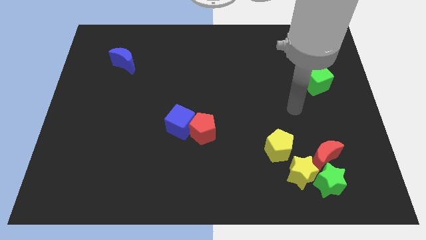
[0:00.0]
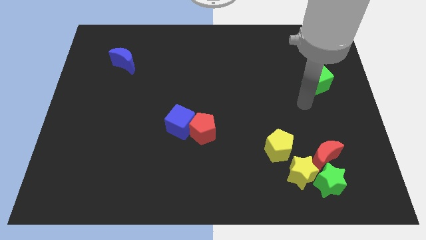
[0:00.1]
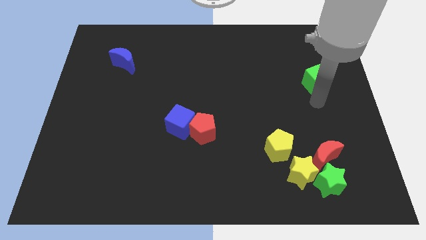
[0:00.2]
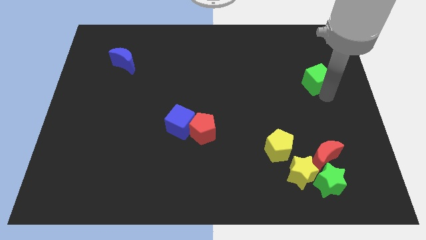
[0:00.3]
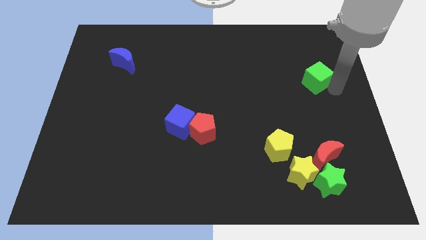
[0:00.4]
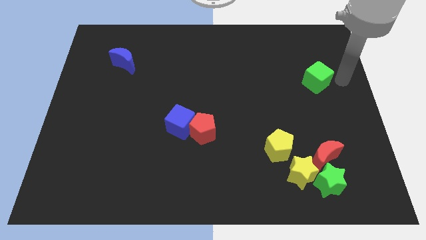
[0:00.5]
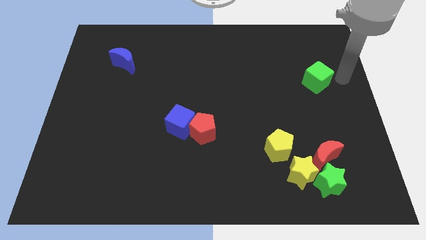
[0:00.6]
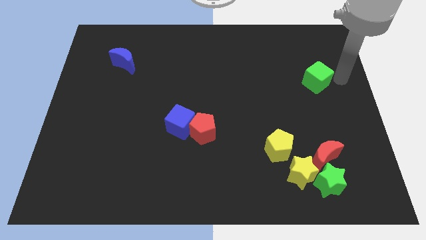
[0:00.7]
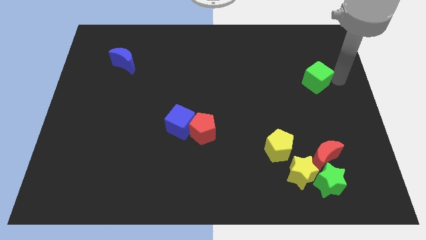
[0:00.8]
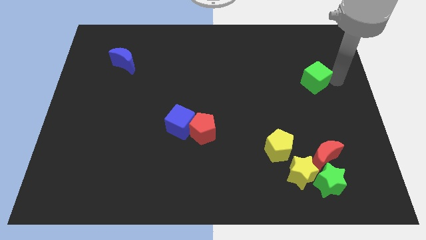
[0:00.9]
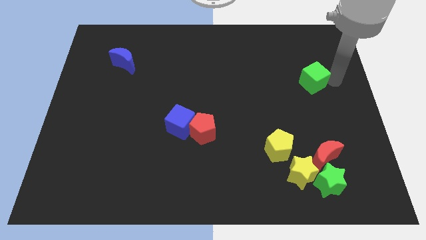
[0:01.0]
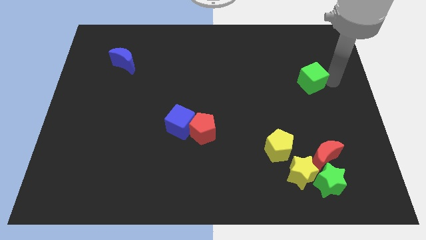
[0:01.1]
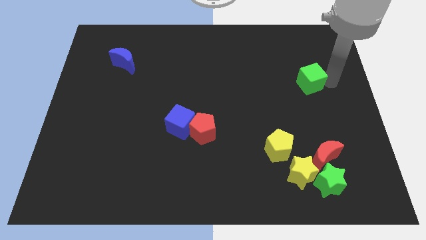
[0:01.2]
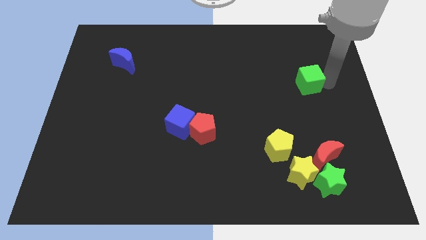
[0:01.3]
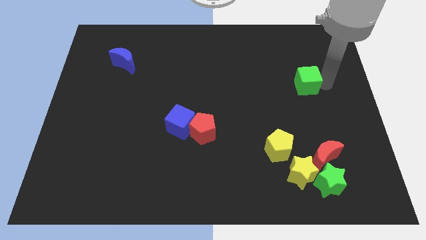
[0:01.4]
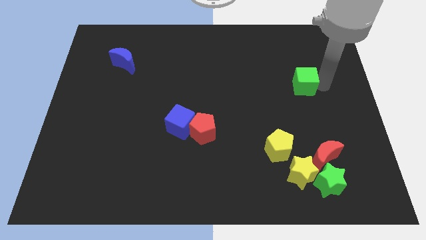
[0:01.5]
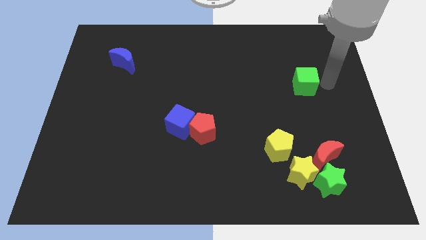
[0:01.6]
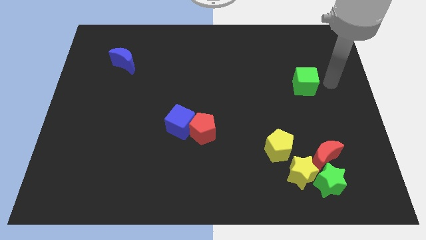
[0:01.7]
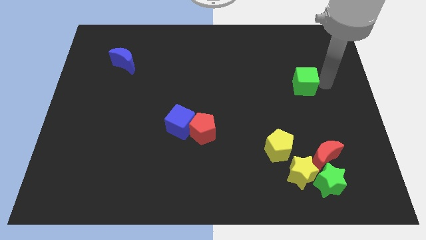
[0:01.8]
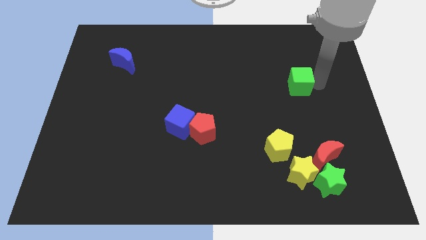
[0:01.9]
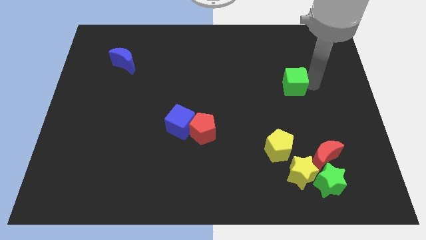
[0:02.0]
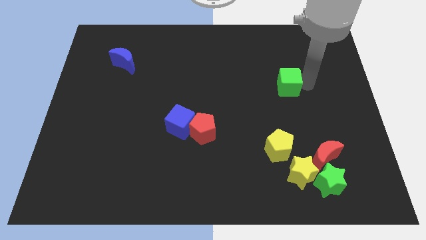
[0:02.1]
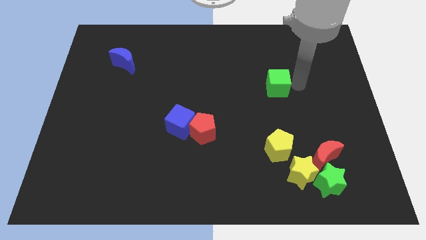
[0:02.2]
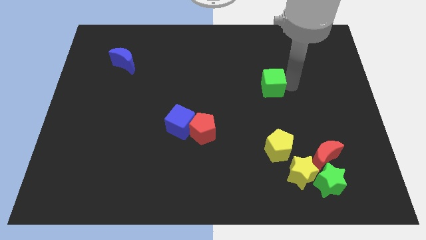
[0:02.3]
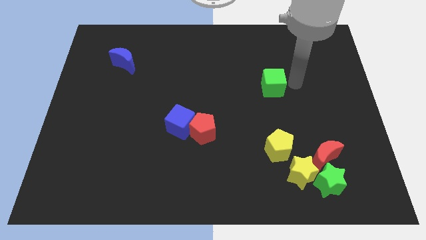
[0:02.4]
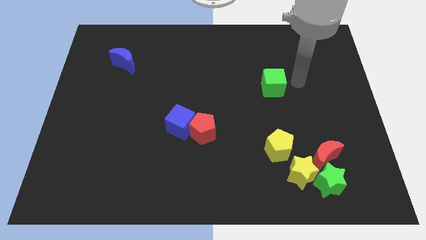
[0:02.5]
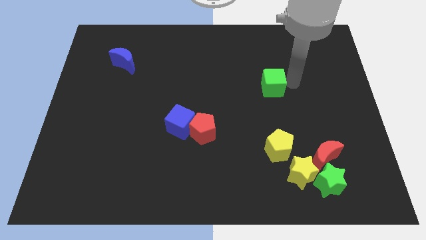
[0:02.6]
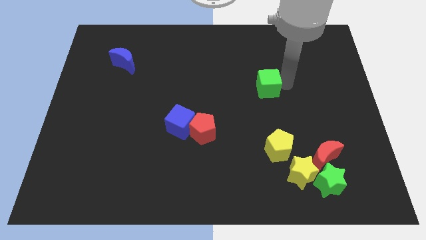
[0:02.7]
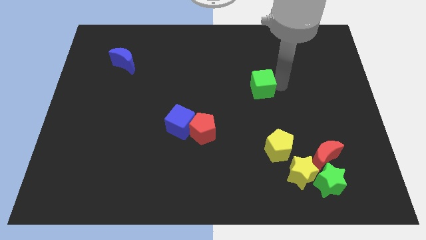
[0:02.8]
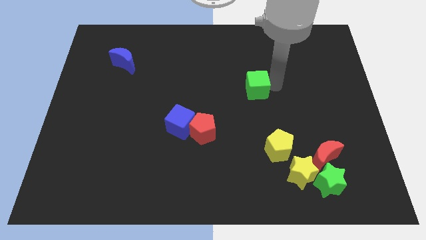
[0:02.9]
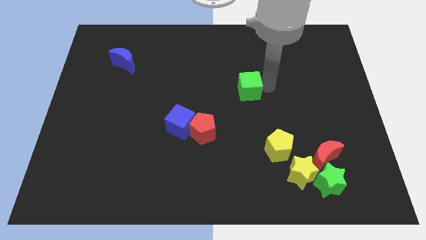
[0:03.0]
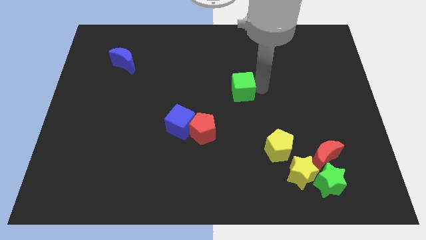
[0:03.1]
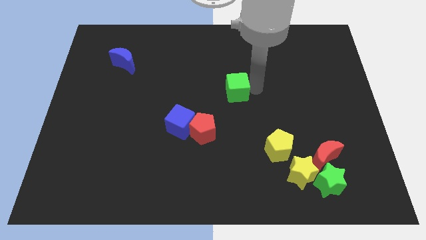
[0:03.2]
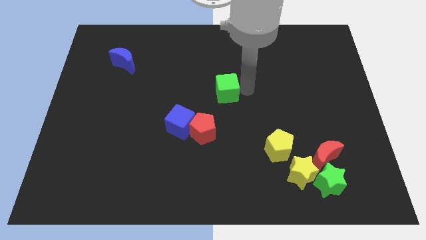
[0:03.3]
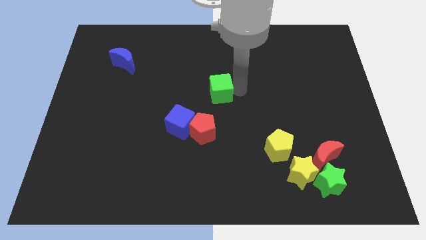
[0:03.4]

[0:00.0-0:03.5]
push the green cube to the top side of the red pentagon

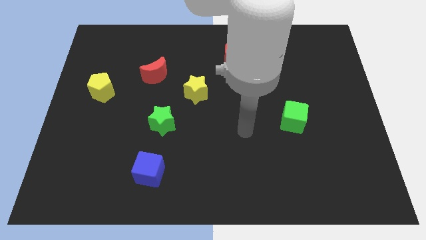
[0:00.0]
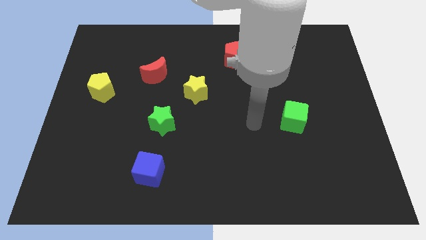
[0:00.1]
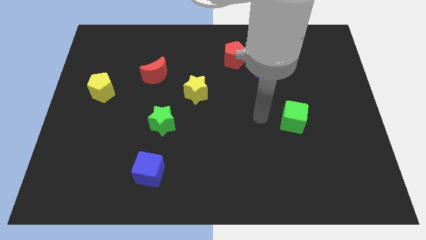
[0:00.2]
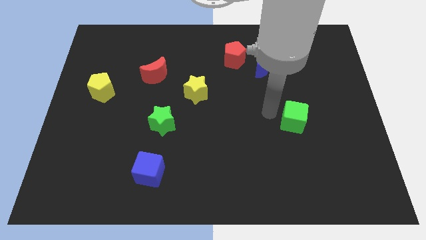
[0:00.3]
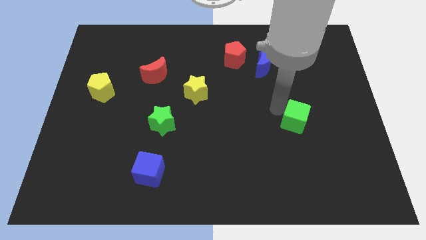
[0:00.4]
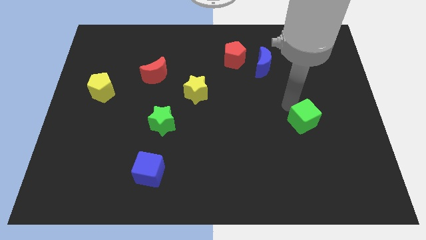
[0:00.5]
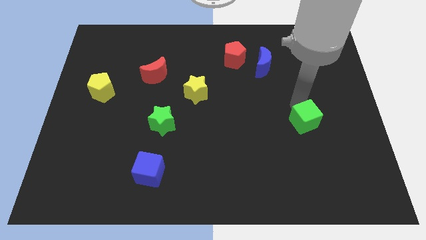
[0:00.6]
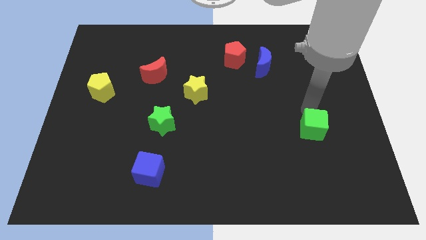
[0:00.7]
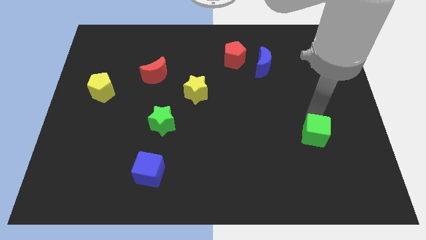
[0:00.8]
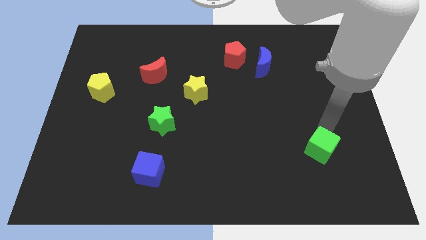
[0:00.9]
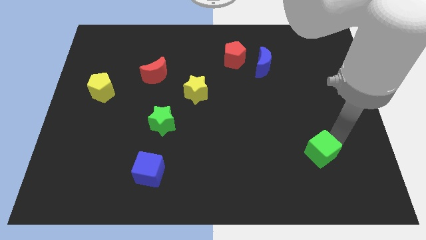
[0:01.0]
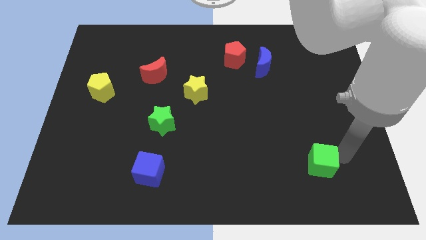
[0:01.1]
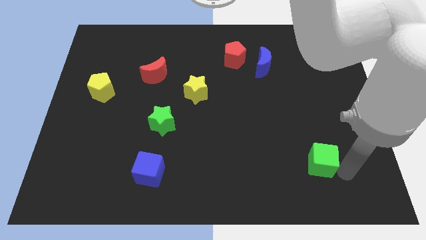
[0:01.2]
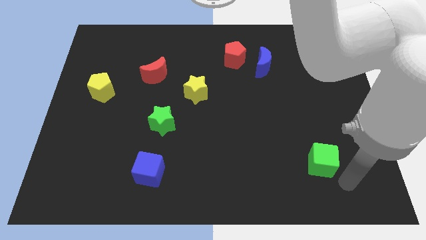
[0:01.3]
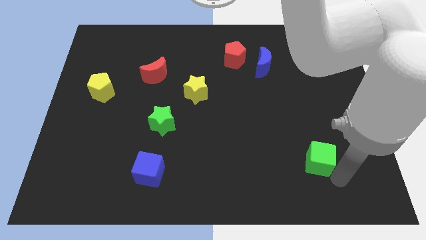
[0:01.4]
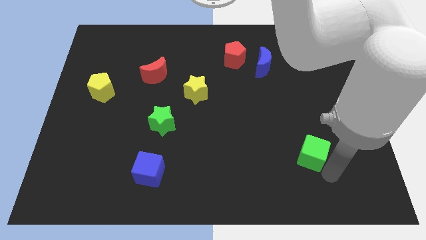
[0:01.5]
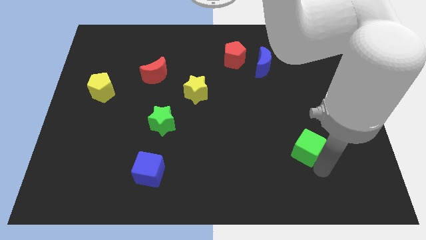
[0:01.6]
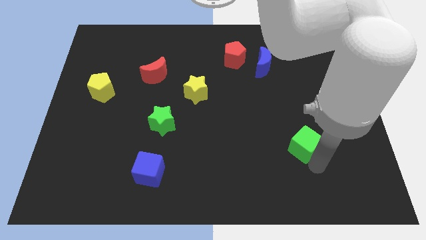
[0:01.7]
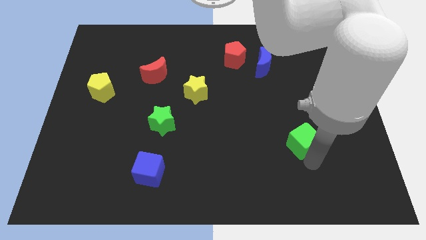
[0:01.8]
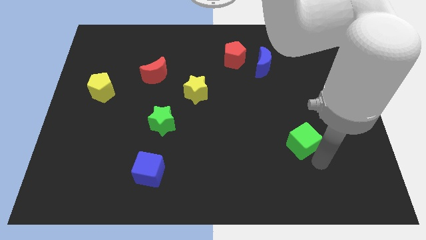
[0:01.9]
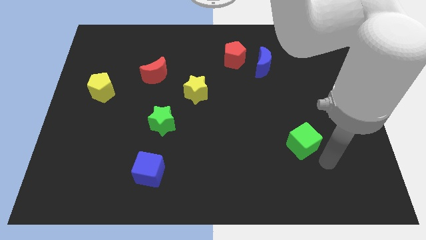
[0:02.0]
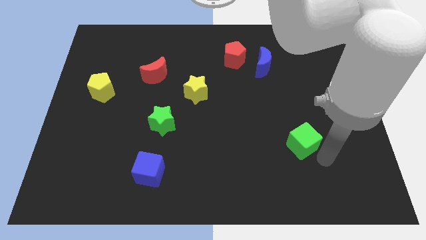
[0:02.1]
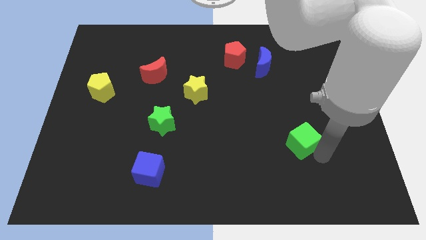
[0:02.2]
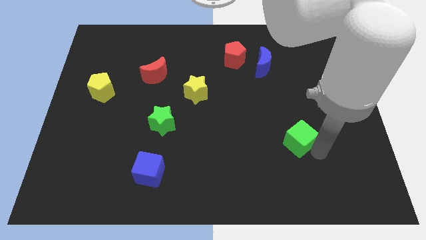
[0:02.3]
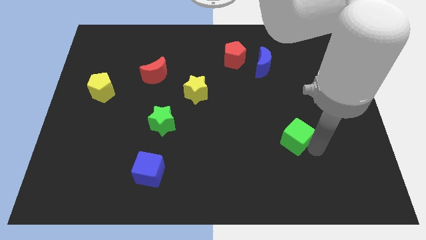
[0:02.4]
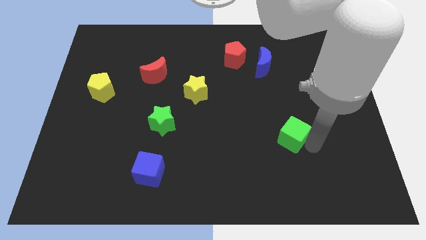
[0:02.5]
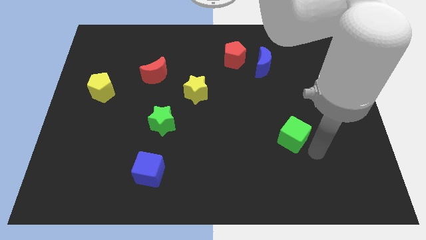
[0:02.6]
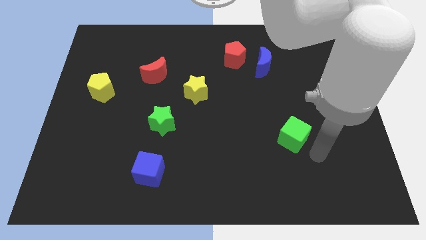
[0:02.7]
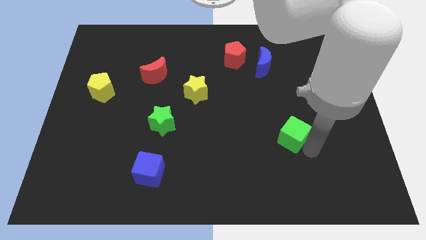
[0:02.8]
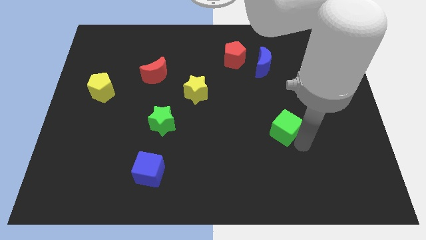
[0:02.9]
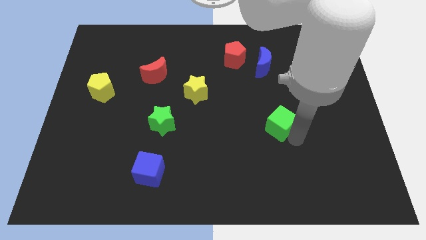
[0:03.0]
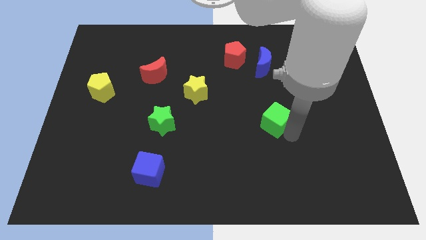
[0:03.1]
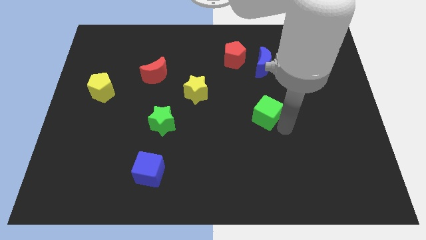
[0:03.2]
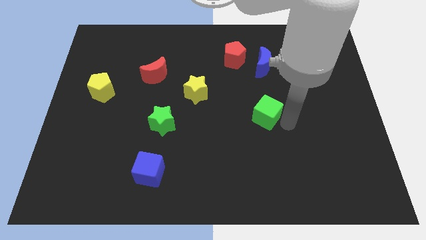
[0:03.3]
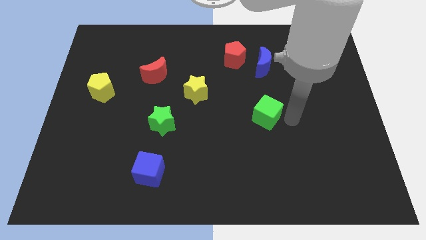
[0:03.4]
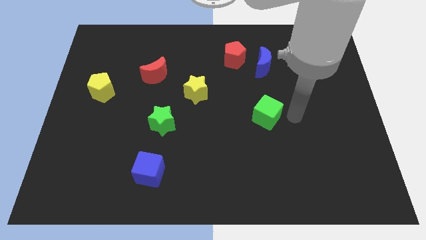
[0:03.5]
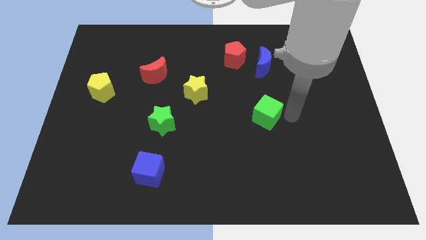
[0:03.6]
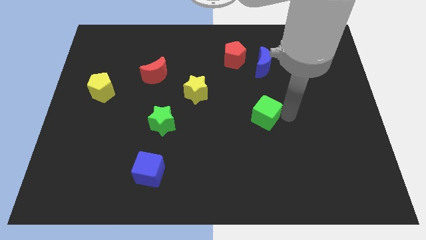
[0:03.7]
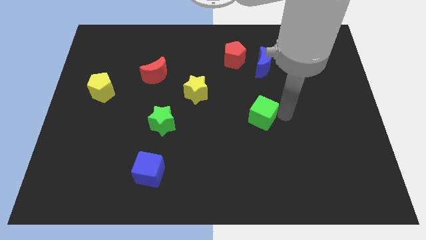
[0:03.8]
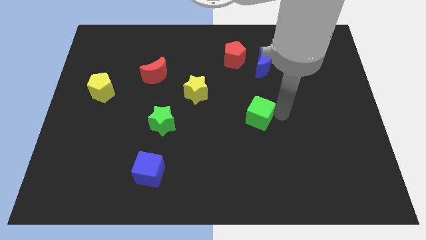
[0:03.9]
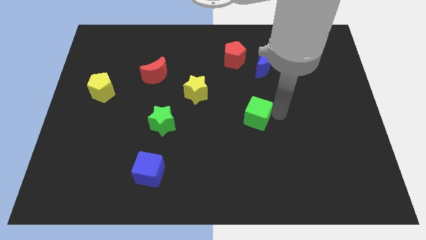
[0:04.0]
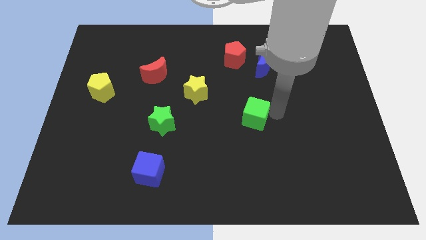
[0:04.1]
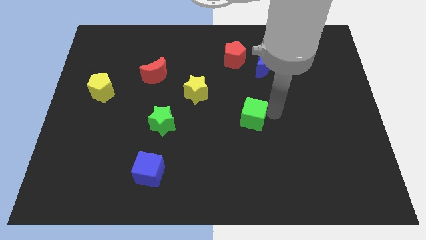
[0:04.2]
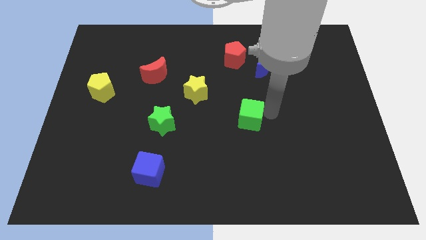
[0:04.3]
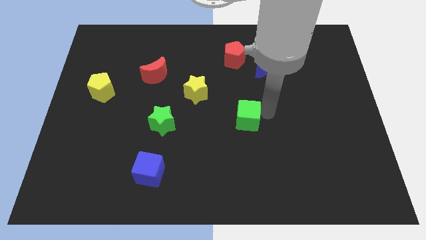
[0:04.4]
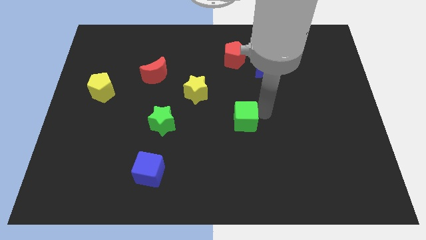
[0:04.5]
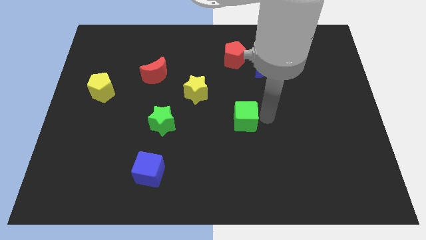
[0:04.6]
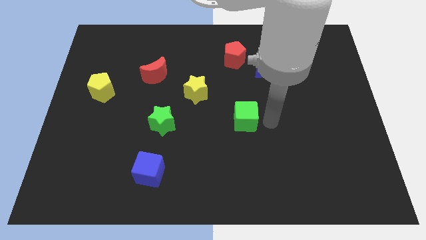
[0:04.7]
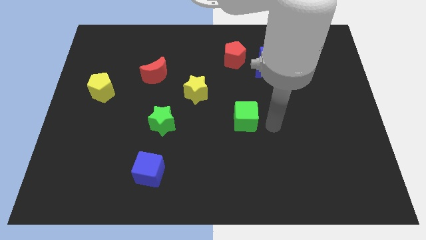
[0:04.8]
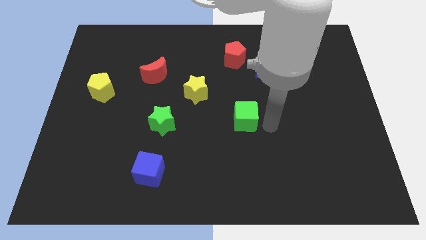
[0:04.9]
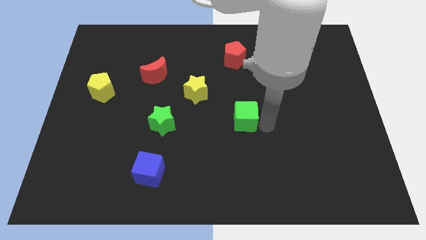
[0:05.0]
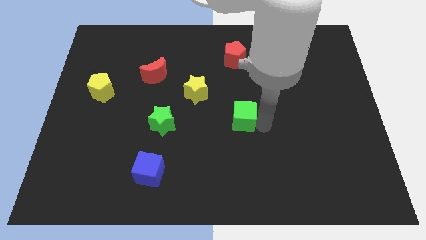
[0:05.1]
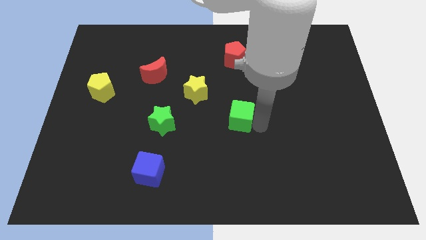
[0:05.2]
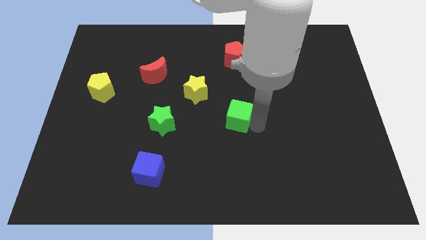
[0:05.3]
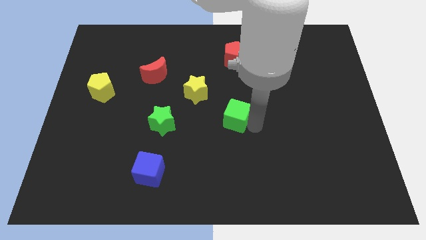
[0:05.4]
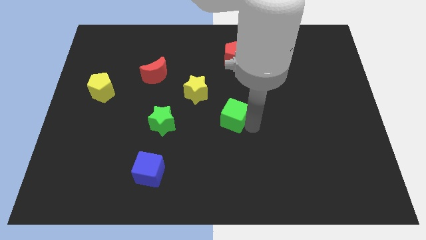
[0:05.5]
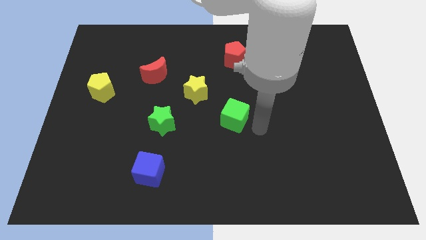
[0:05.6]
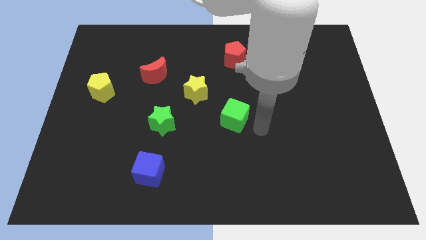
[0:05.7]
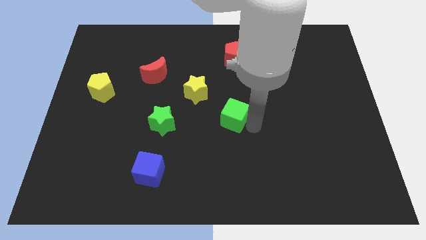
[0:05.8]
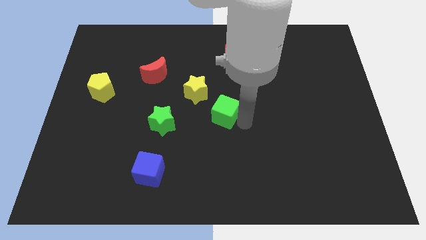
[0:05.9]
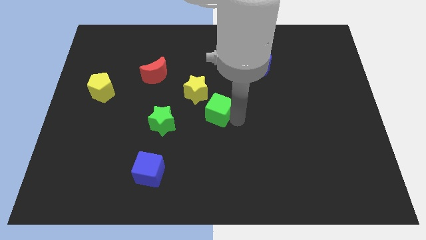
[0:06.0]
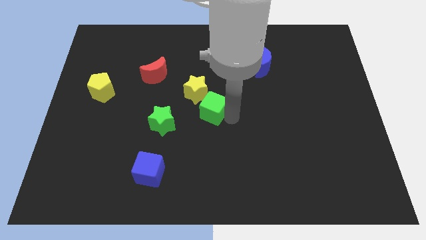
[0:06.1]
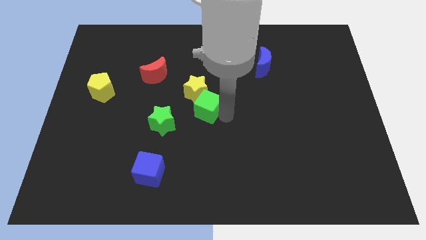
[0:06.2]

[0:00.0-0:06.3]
push the green cube diagonally up and to the right of the green star
